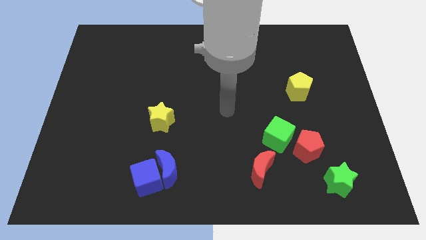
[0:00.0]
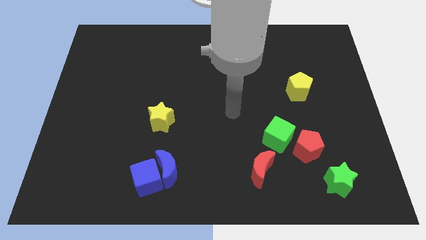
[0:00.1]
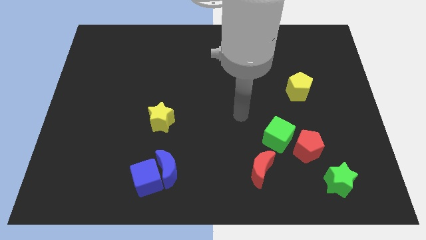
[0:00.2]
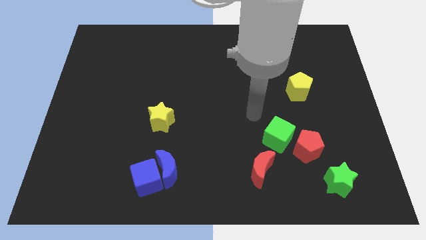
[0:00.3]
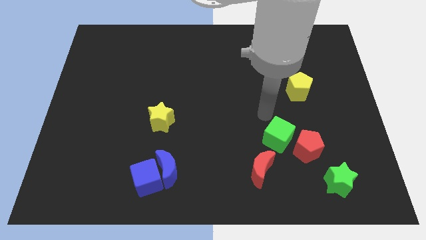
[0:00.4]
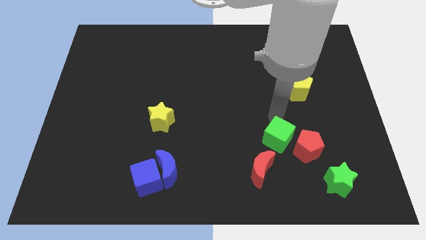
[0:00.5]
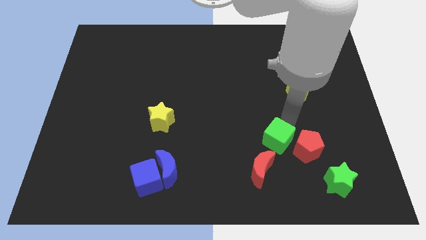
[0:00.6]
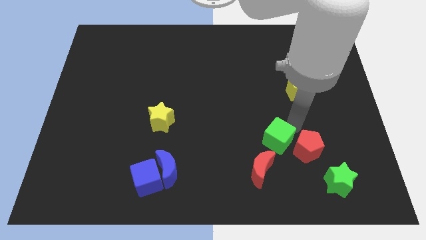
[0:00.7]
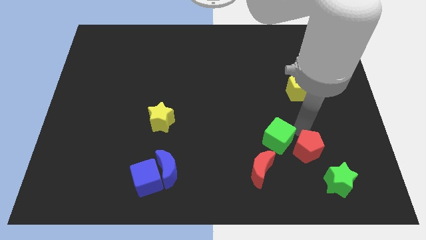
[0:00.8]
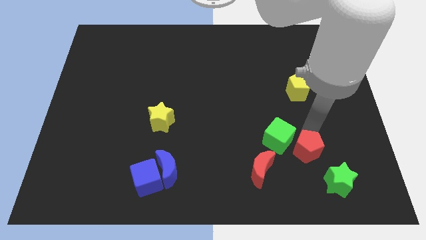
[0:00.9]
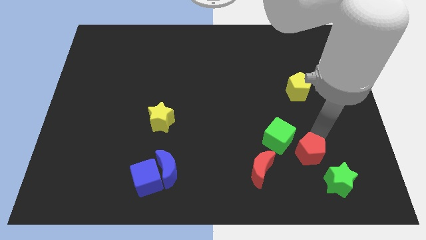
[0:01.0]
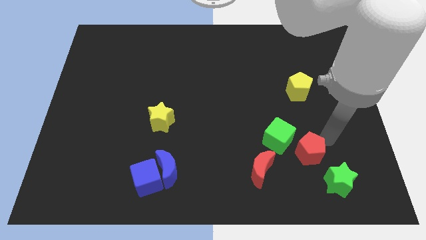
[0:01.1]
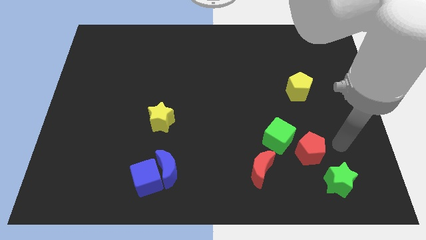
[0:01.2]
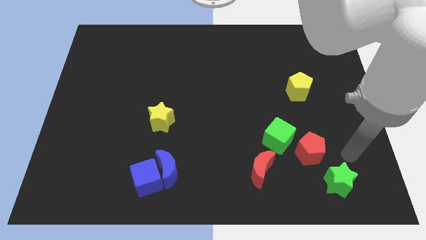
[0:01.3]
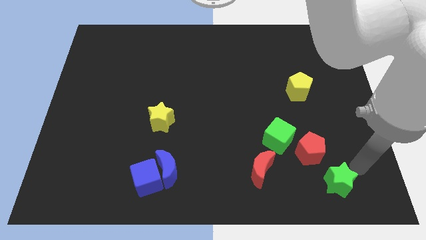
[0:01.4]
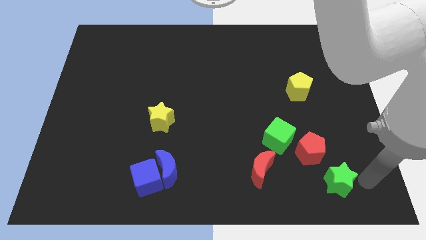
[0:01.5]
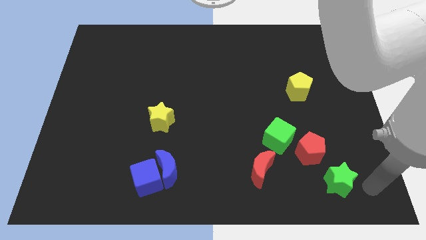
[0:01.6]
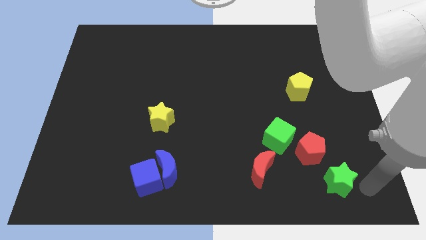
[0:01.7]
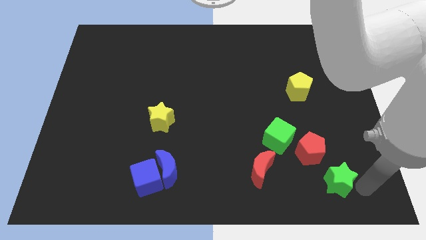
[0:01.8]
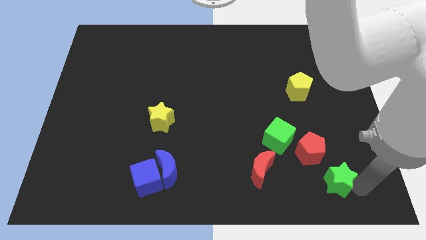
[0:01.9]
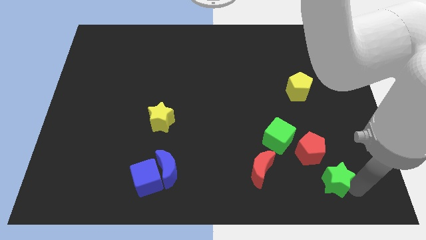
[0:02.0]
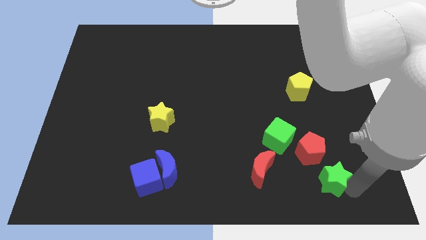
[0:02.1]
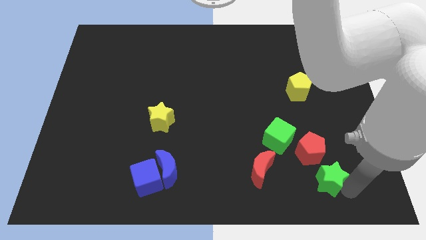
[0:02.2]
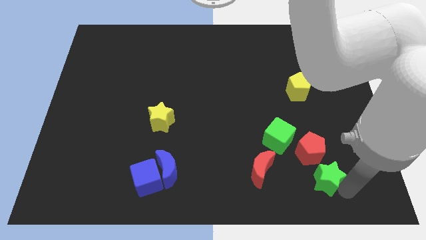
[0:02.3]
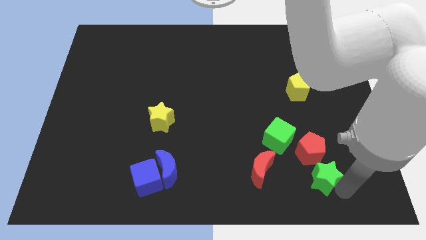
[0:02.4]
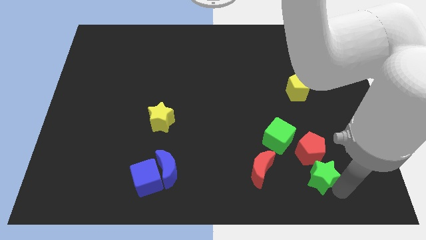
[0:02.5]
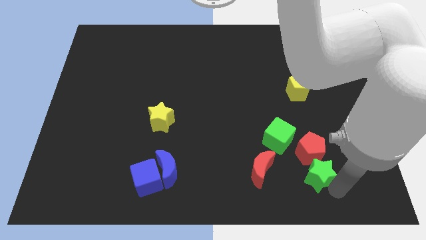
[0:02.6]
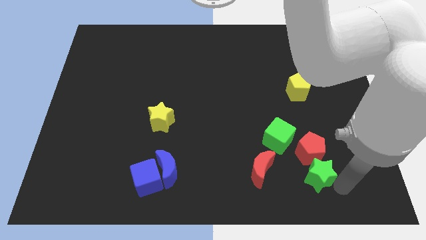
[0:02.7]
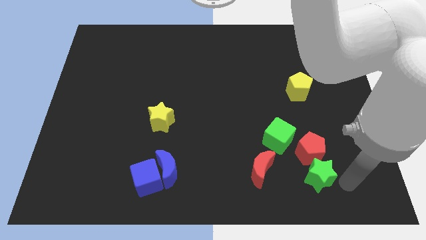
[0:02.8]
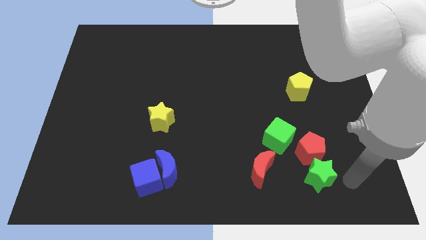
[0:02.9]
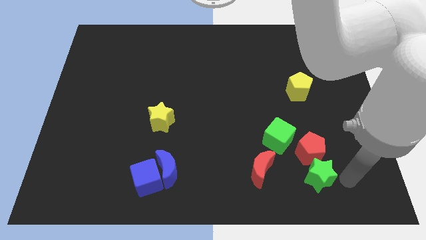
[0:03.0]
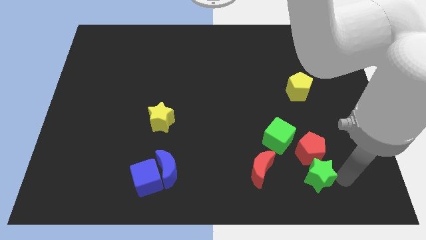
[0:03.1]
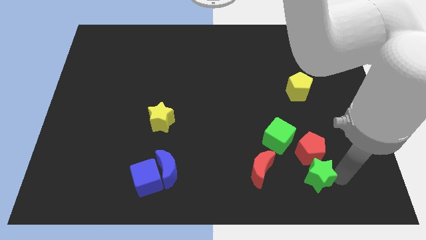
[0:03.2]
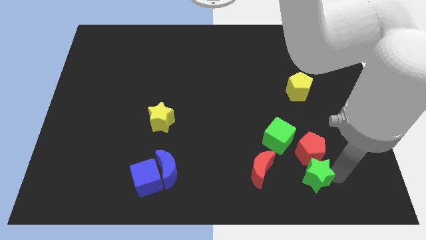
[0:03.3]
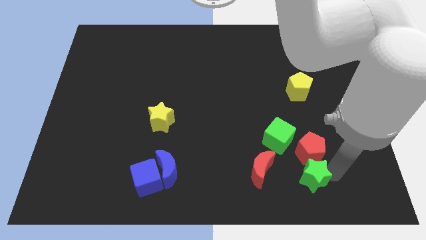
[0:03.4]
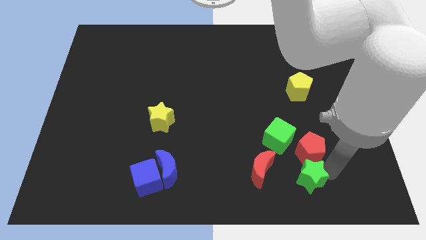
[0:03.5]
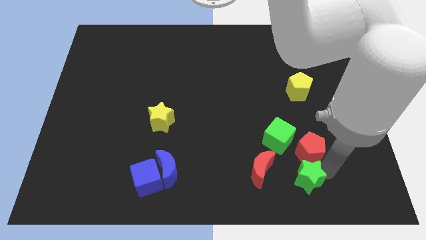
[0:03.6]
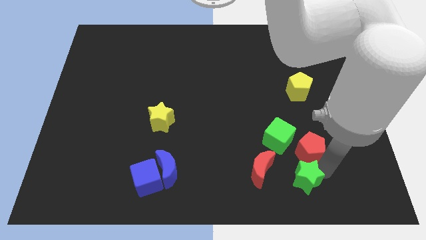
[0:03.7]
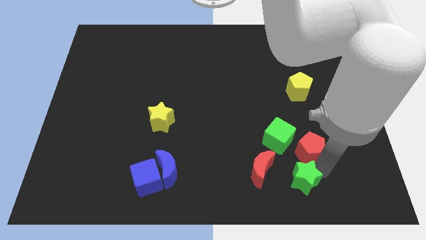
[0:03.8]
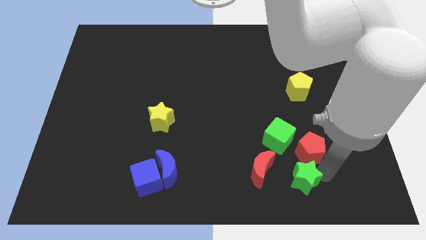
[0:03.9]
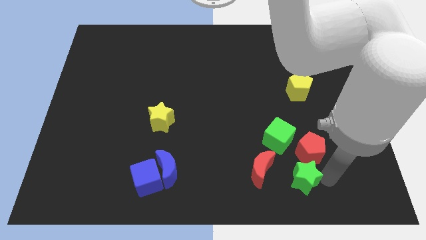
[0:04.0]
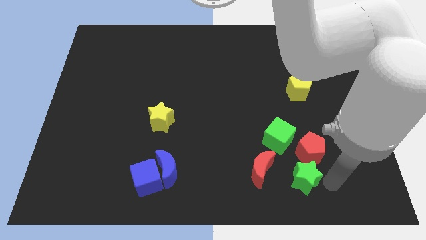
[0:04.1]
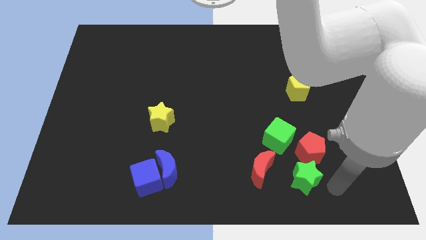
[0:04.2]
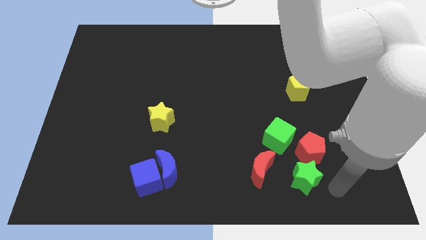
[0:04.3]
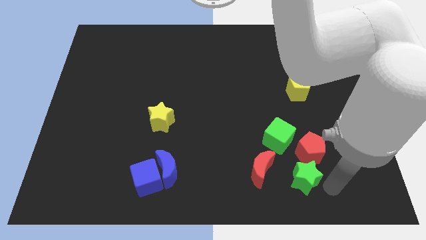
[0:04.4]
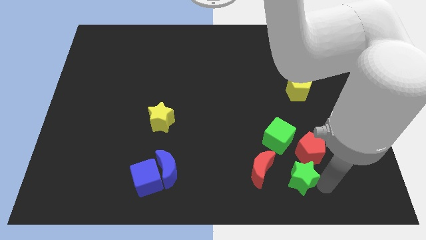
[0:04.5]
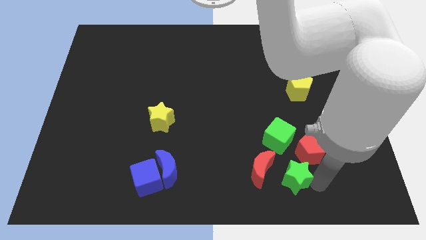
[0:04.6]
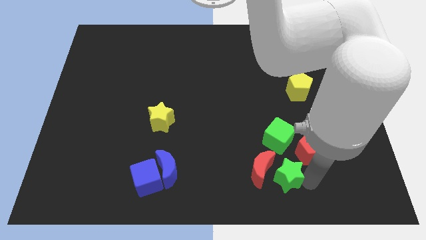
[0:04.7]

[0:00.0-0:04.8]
move the green star close to the red moon
